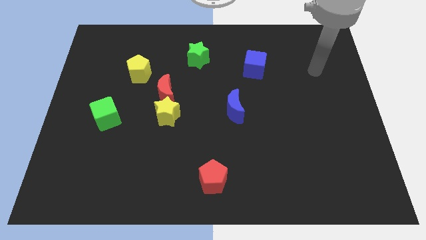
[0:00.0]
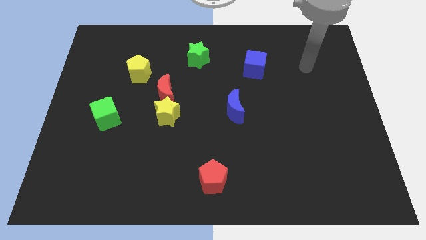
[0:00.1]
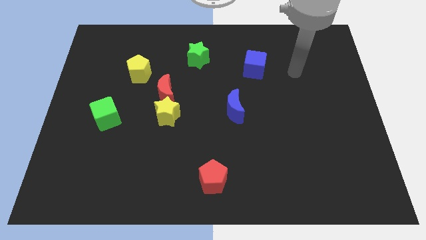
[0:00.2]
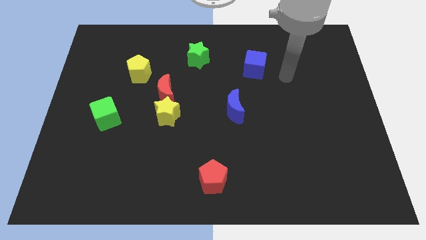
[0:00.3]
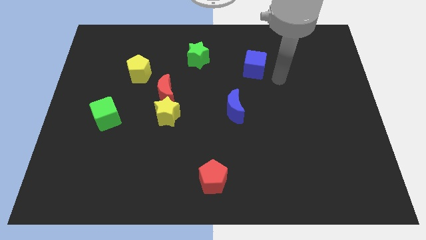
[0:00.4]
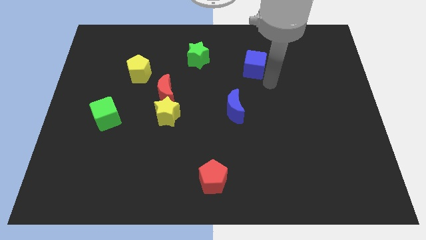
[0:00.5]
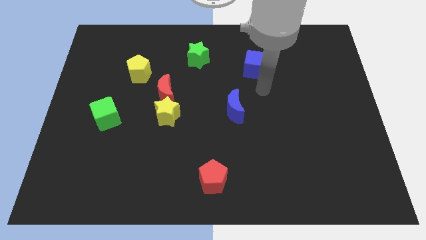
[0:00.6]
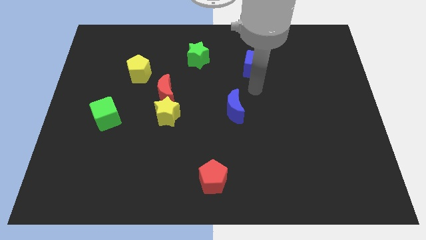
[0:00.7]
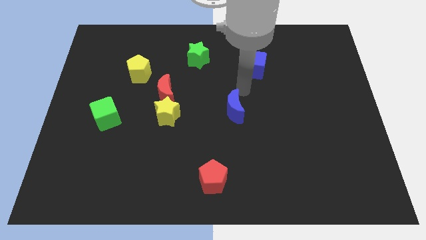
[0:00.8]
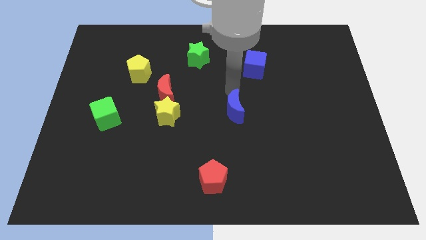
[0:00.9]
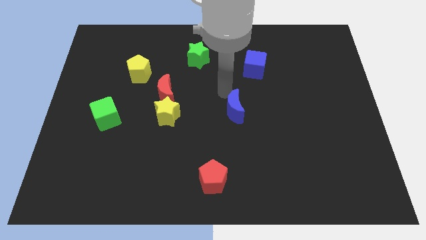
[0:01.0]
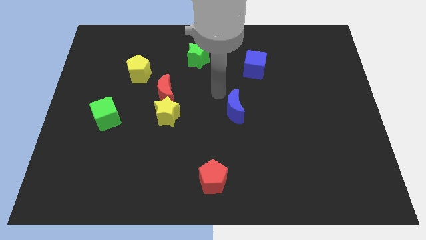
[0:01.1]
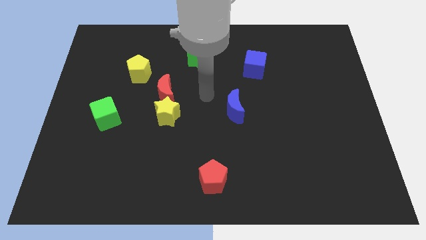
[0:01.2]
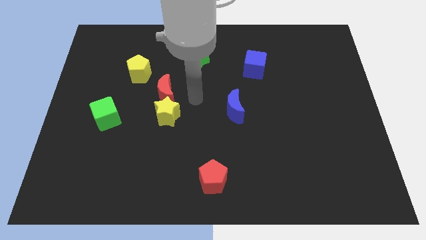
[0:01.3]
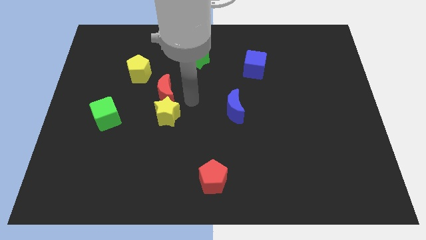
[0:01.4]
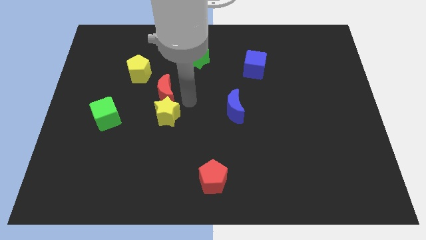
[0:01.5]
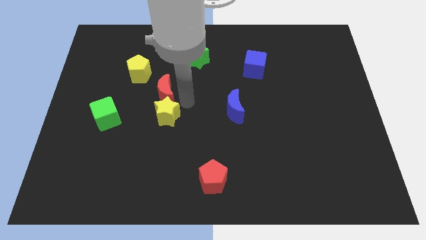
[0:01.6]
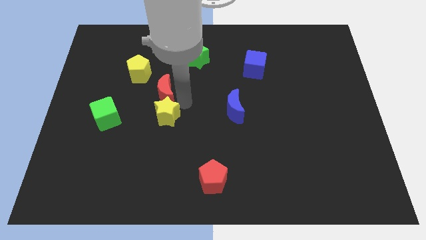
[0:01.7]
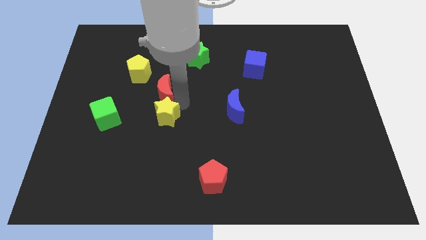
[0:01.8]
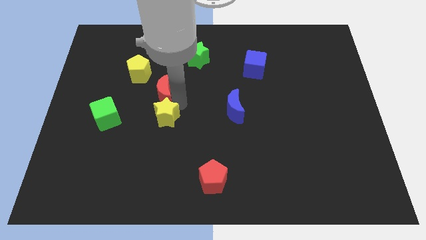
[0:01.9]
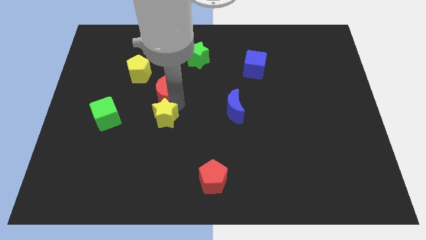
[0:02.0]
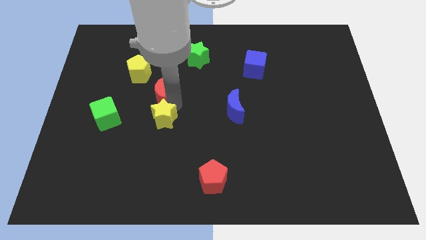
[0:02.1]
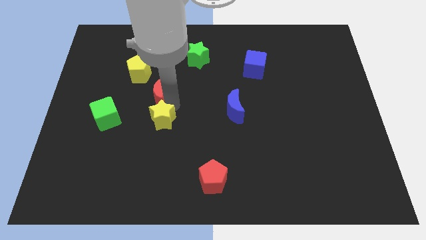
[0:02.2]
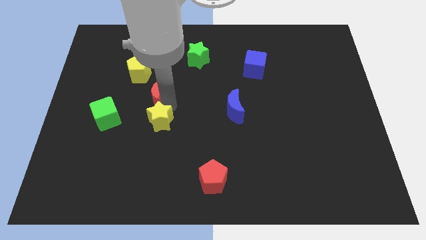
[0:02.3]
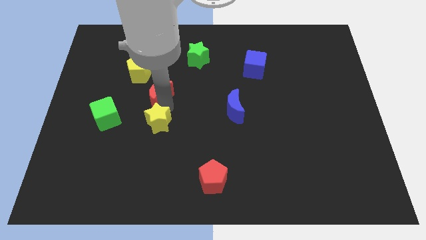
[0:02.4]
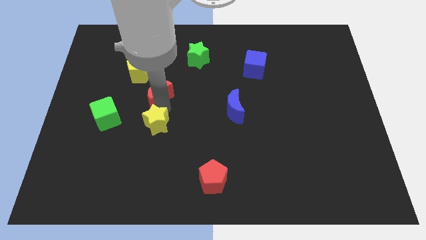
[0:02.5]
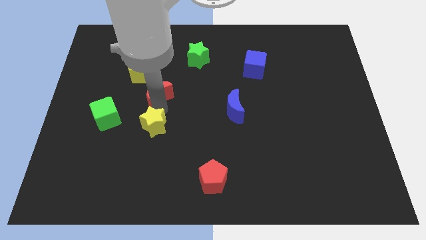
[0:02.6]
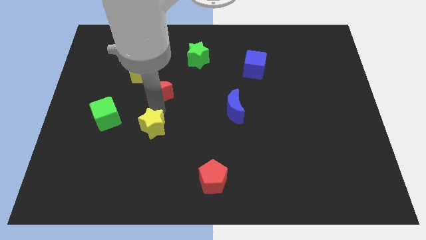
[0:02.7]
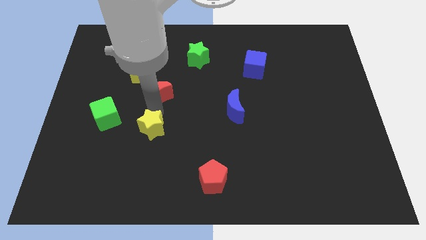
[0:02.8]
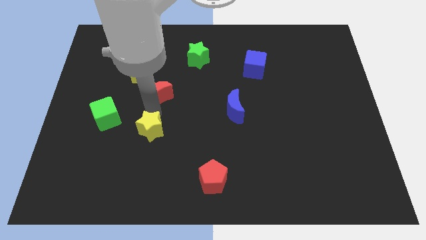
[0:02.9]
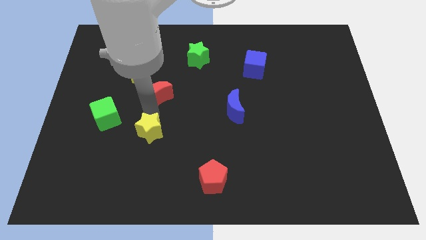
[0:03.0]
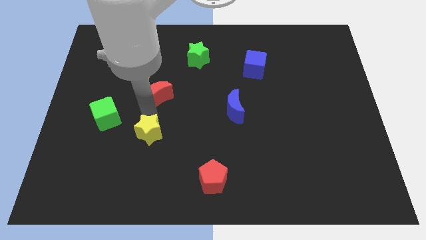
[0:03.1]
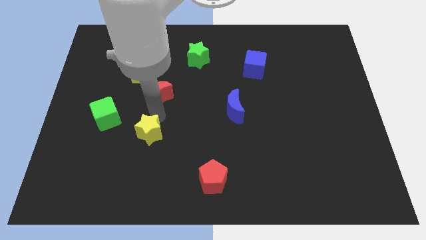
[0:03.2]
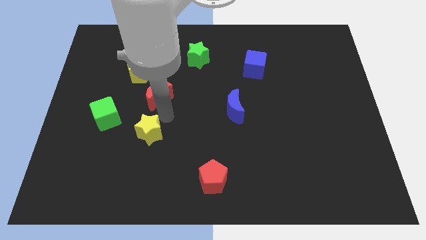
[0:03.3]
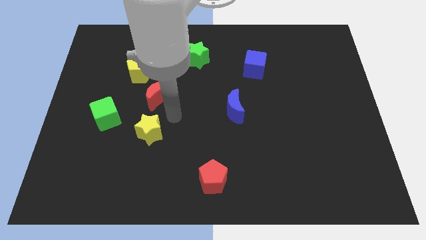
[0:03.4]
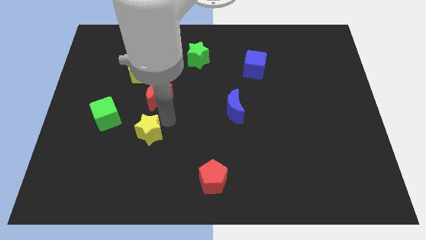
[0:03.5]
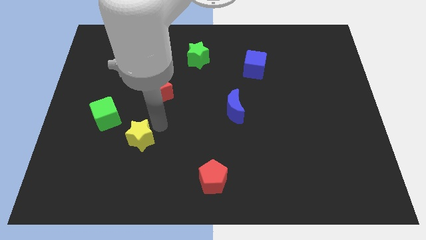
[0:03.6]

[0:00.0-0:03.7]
slightly move the yellow star downwards and left

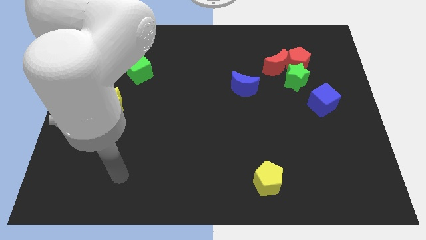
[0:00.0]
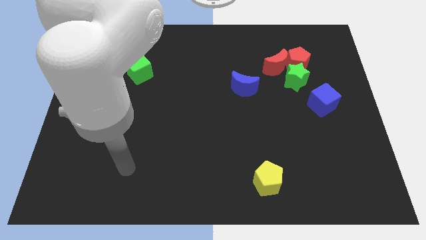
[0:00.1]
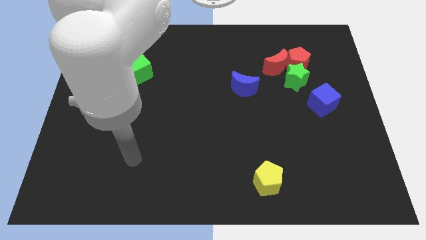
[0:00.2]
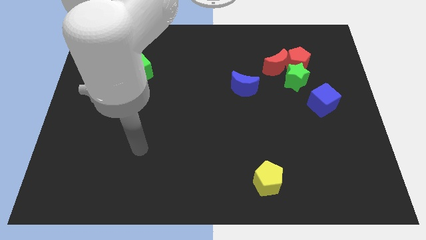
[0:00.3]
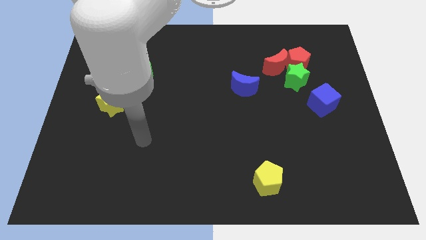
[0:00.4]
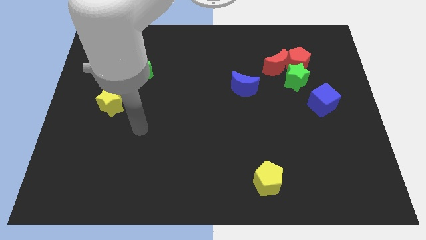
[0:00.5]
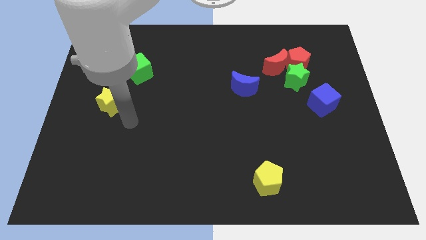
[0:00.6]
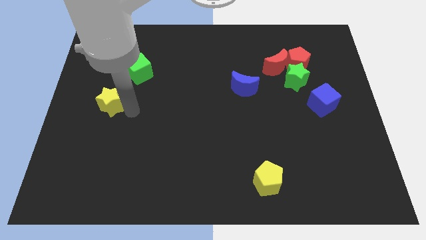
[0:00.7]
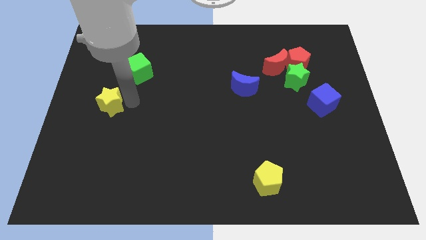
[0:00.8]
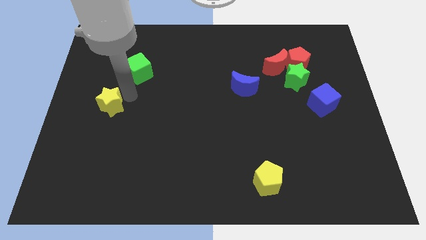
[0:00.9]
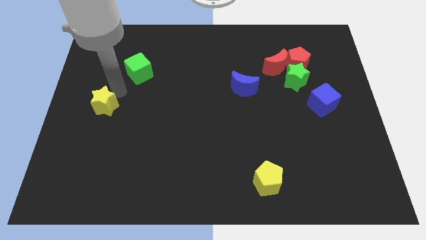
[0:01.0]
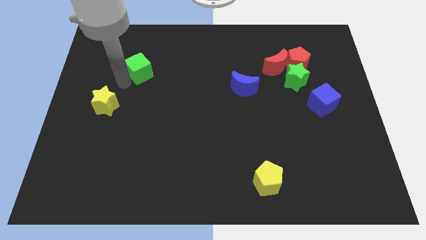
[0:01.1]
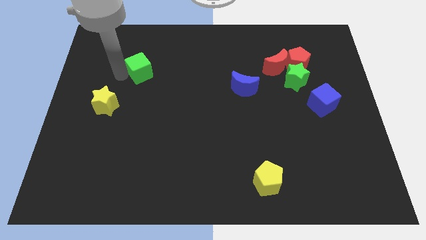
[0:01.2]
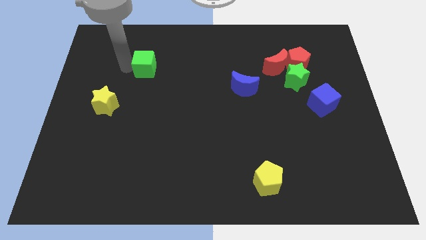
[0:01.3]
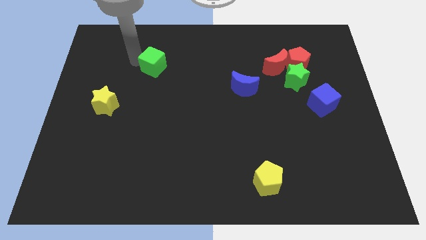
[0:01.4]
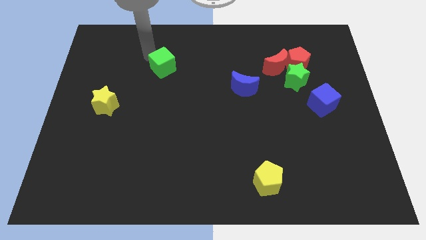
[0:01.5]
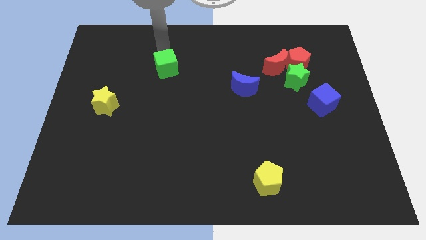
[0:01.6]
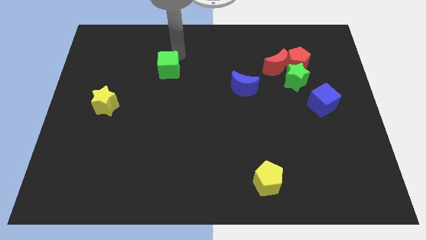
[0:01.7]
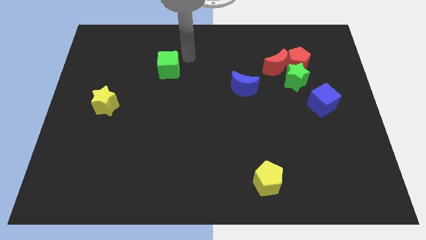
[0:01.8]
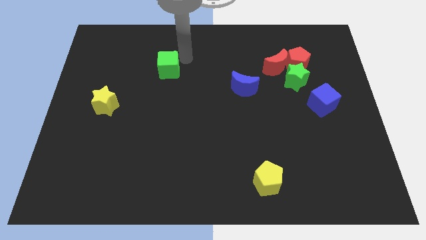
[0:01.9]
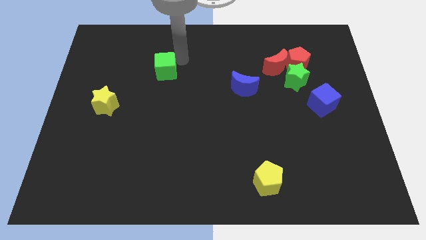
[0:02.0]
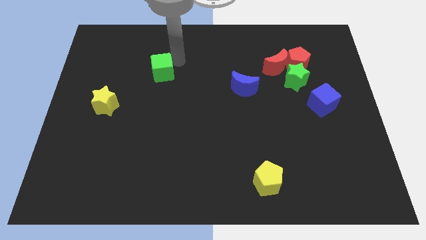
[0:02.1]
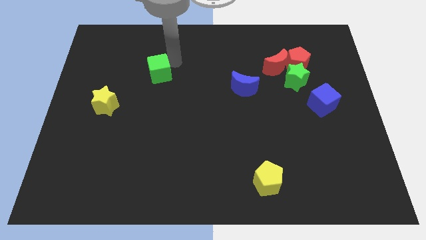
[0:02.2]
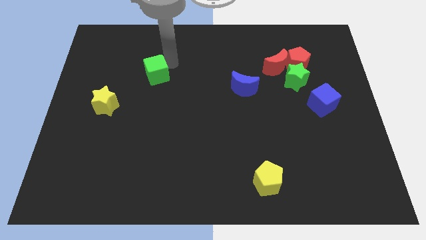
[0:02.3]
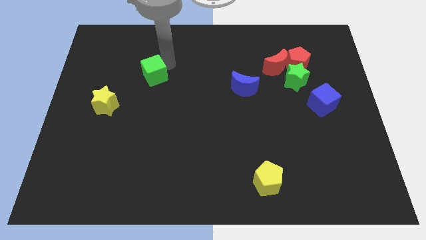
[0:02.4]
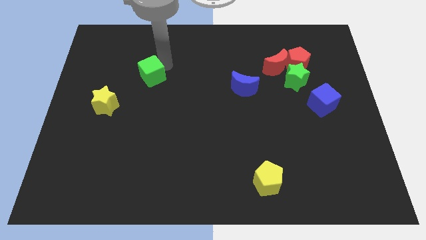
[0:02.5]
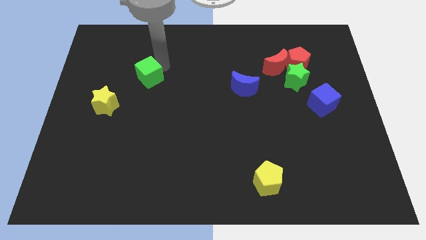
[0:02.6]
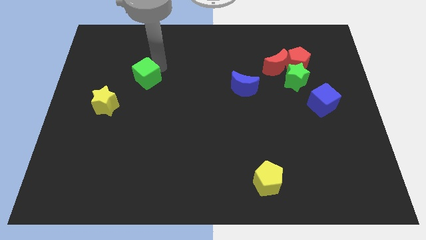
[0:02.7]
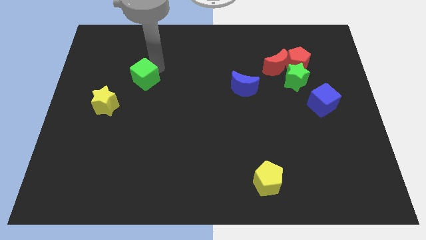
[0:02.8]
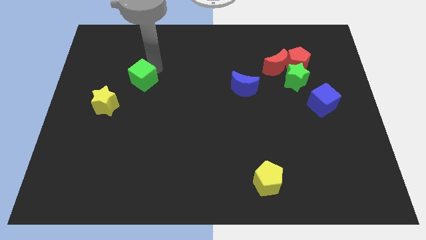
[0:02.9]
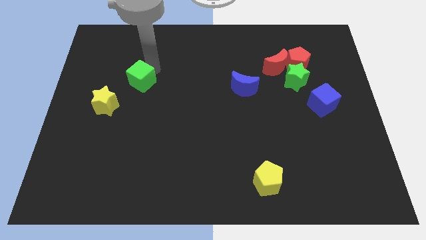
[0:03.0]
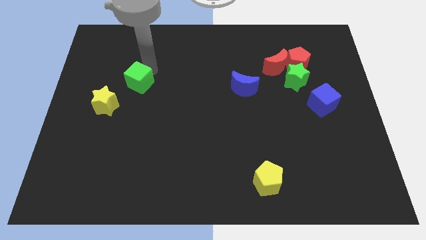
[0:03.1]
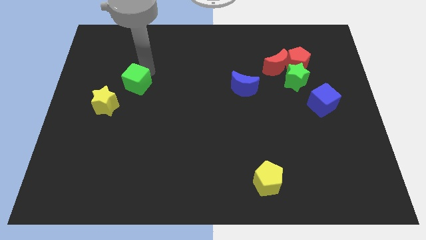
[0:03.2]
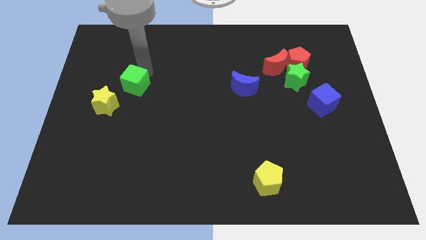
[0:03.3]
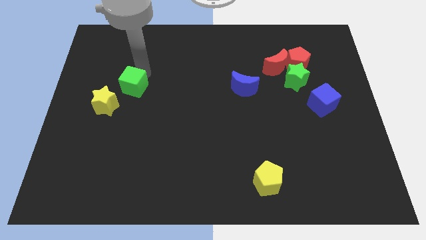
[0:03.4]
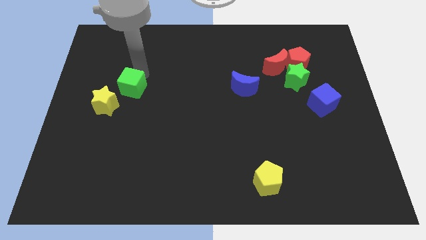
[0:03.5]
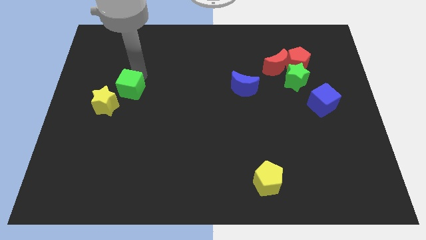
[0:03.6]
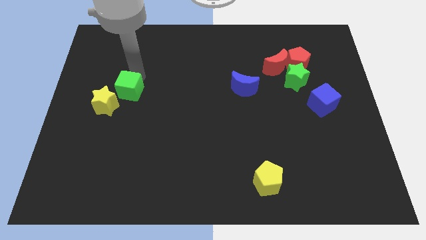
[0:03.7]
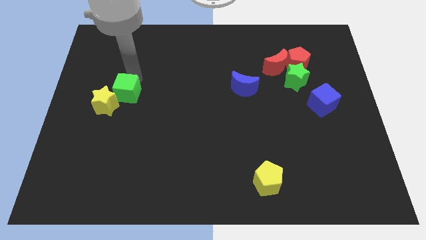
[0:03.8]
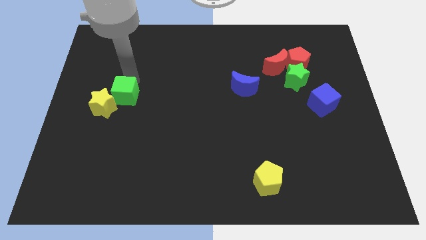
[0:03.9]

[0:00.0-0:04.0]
slide the green cube down a little

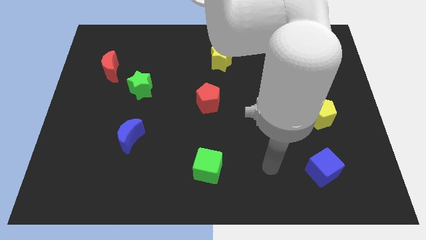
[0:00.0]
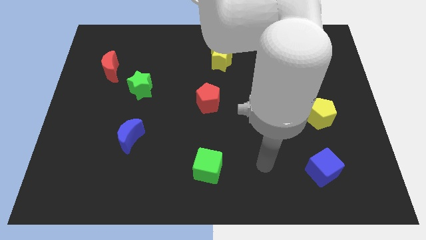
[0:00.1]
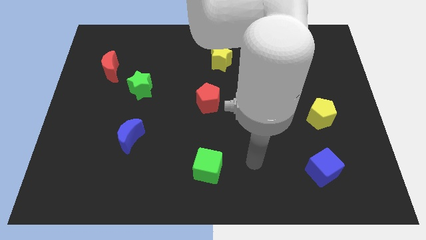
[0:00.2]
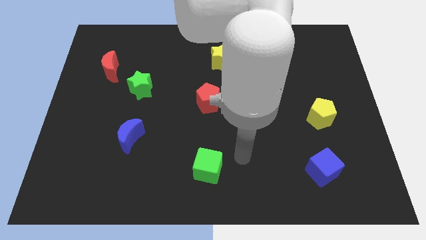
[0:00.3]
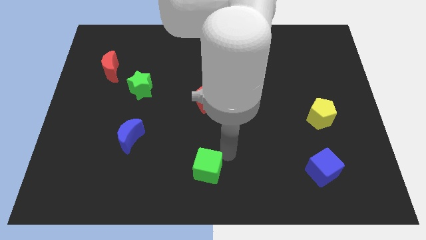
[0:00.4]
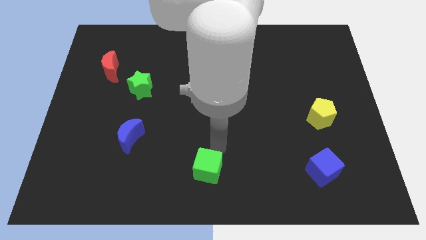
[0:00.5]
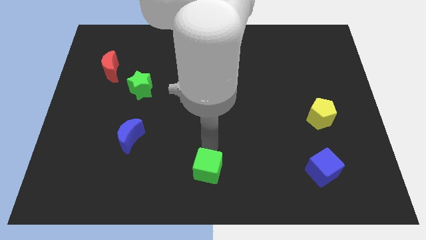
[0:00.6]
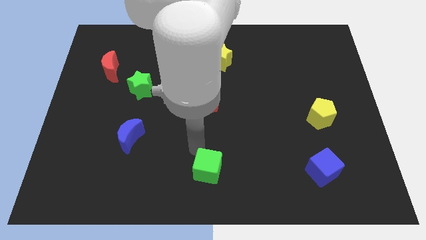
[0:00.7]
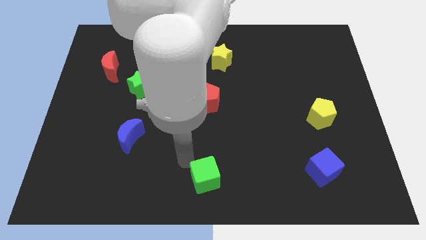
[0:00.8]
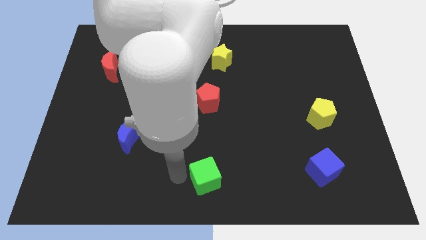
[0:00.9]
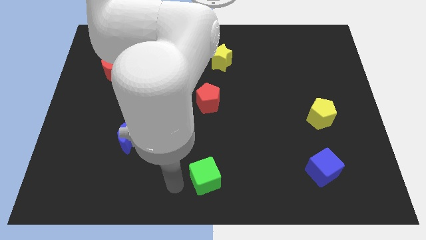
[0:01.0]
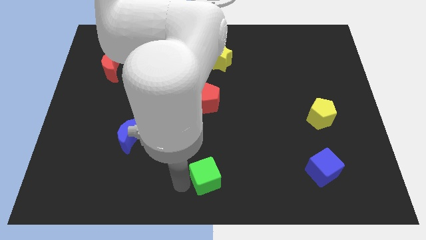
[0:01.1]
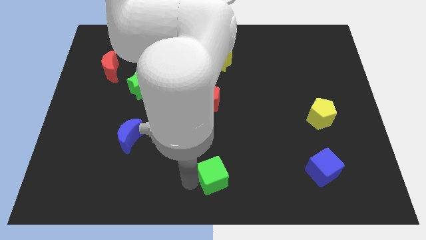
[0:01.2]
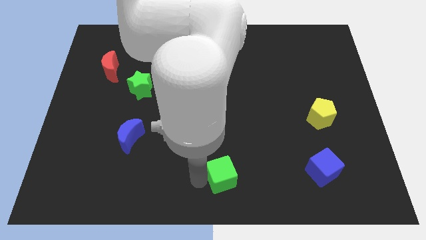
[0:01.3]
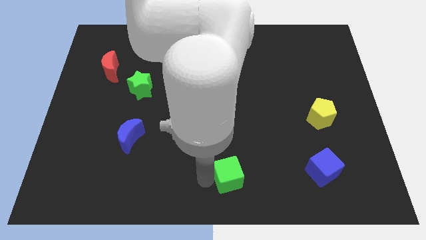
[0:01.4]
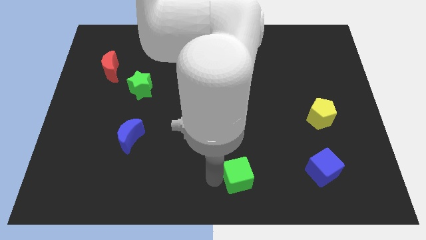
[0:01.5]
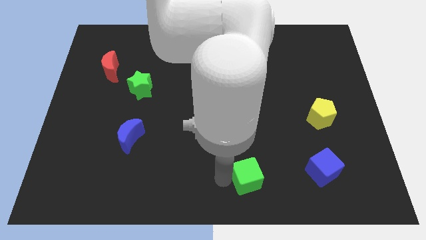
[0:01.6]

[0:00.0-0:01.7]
slightly push the green cube to the right
